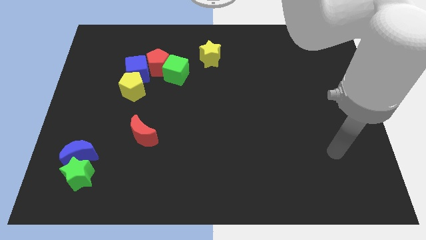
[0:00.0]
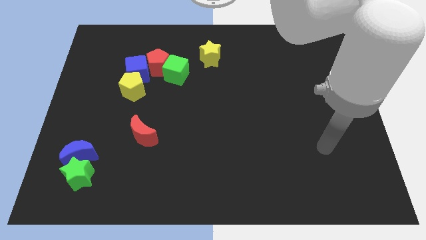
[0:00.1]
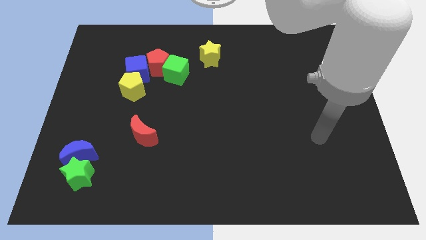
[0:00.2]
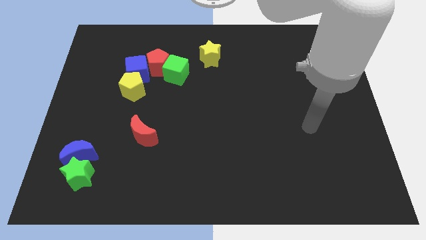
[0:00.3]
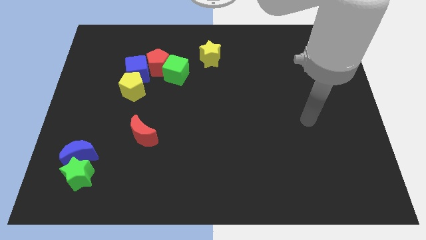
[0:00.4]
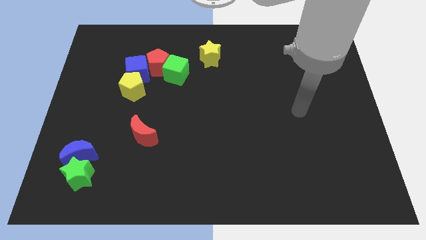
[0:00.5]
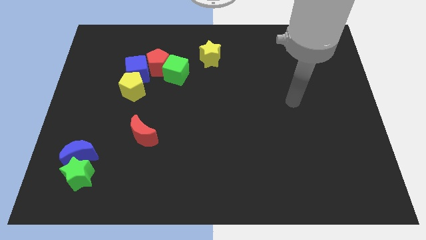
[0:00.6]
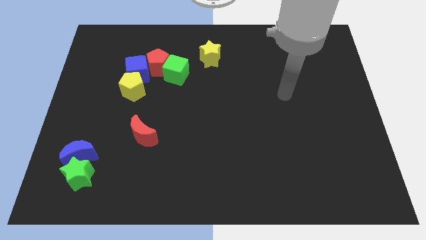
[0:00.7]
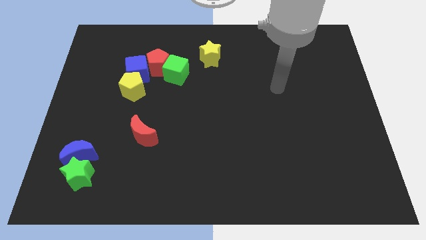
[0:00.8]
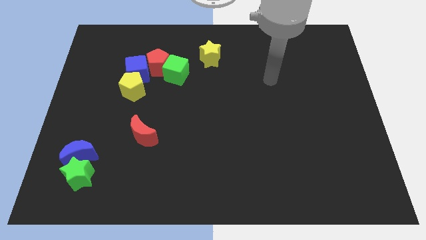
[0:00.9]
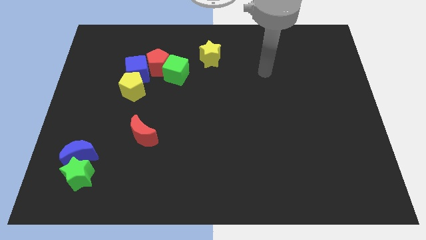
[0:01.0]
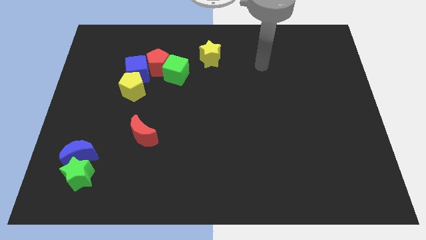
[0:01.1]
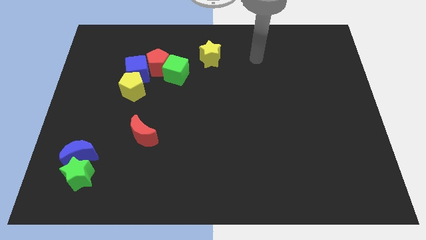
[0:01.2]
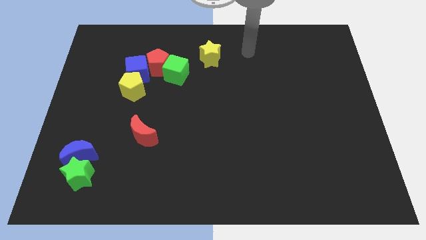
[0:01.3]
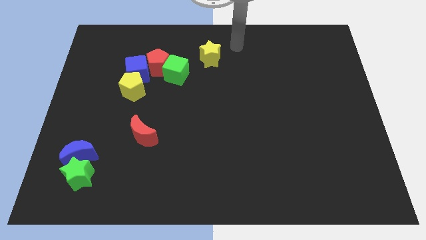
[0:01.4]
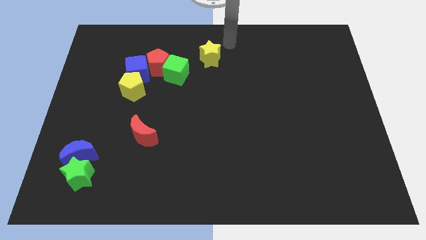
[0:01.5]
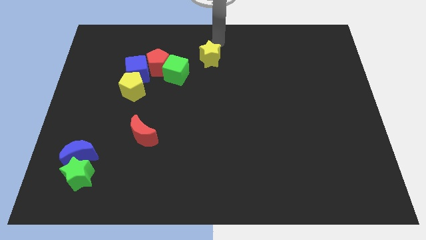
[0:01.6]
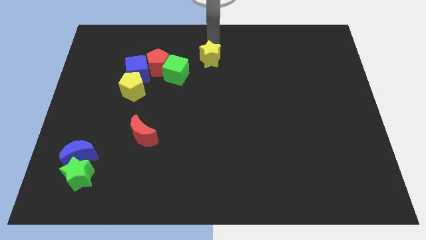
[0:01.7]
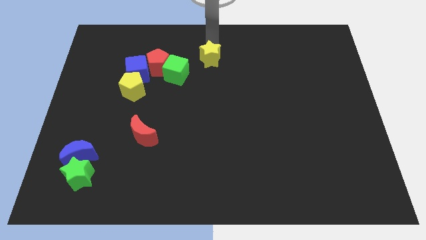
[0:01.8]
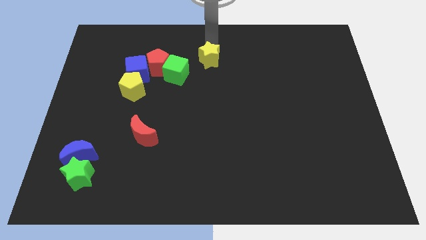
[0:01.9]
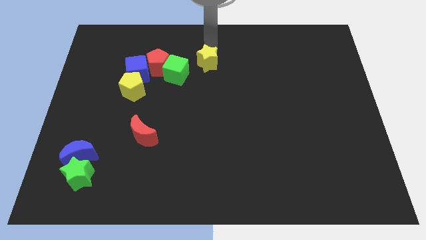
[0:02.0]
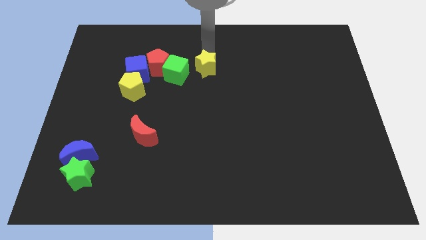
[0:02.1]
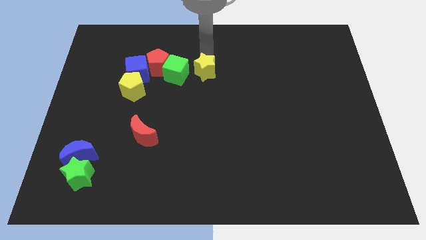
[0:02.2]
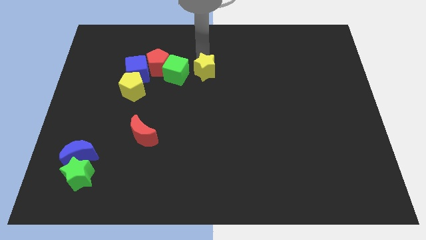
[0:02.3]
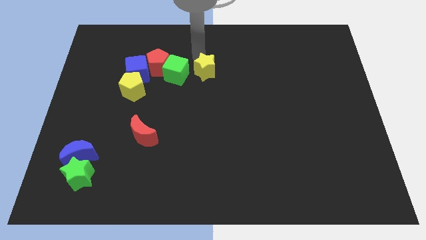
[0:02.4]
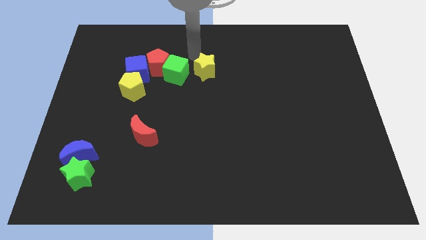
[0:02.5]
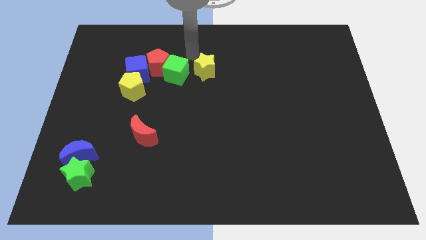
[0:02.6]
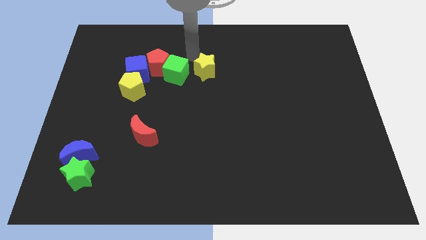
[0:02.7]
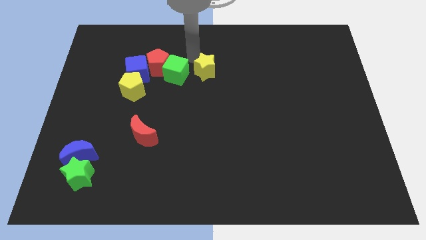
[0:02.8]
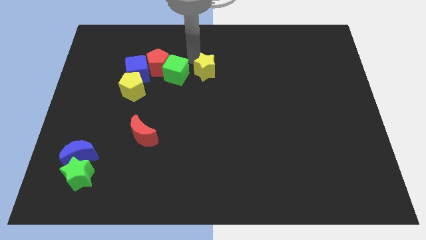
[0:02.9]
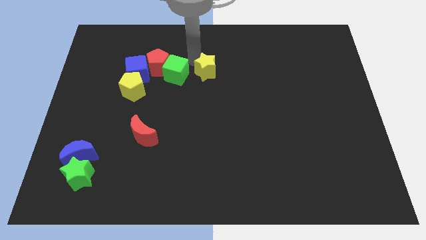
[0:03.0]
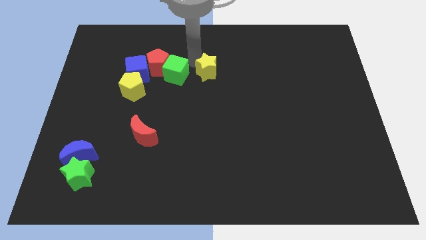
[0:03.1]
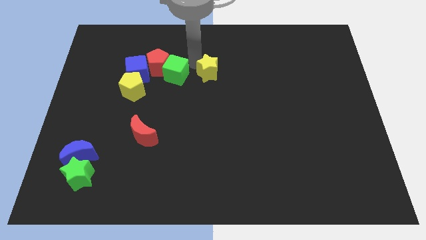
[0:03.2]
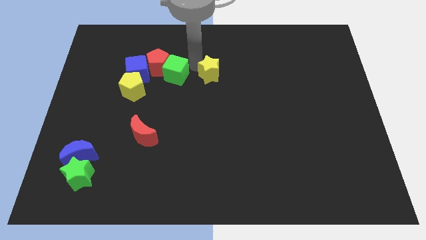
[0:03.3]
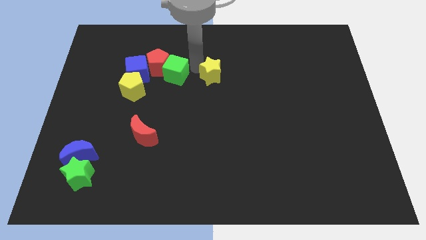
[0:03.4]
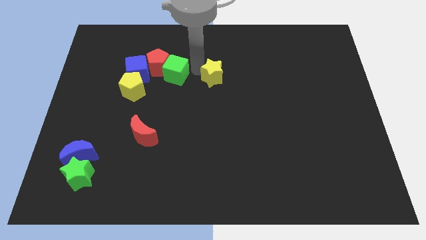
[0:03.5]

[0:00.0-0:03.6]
push the yellow star down a little

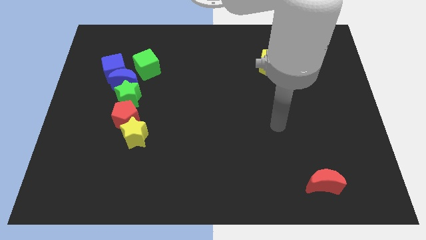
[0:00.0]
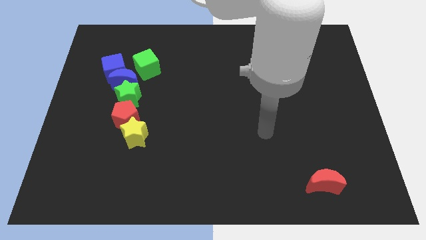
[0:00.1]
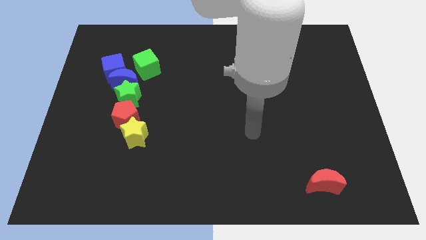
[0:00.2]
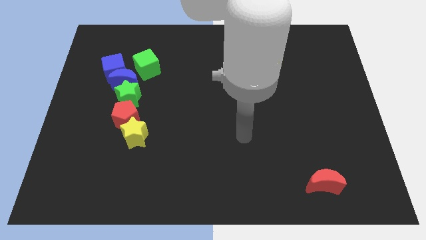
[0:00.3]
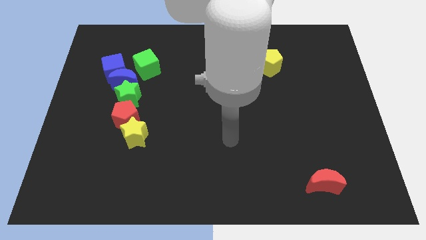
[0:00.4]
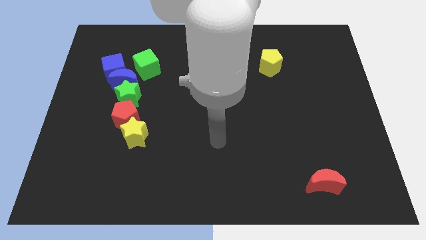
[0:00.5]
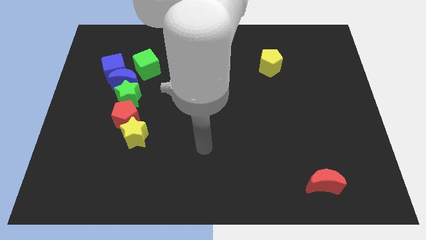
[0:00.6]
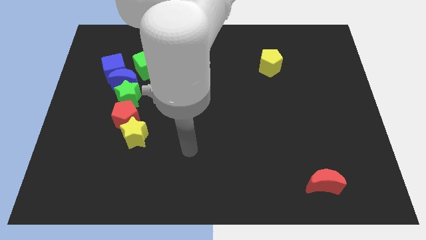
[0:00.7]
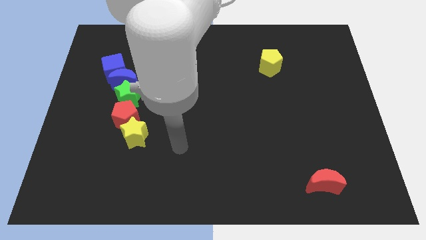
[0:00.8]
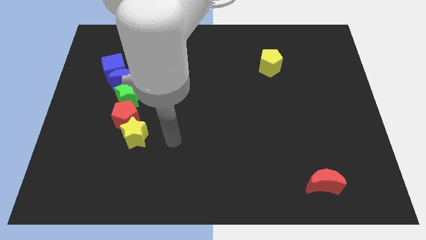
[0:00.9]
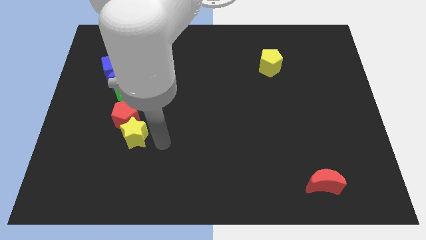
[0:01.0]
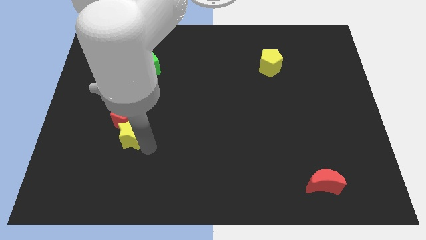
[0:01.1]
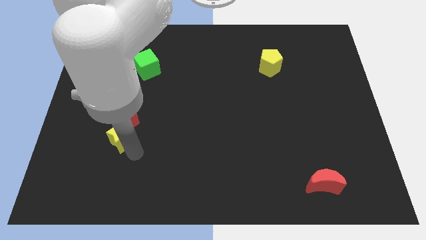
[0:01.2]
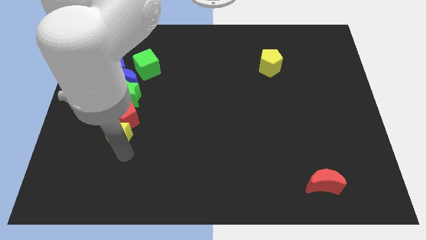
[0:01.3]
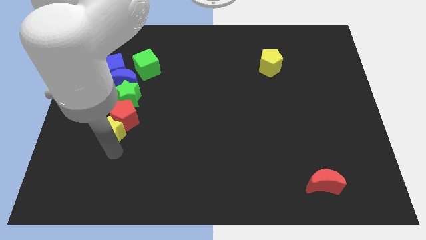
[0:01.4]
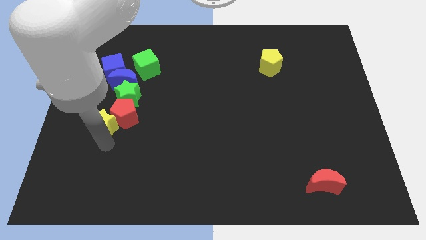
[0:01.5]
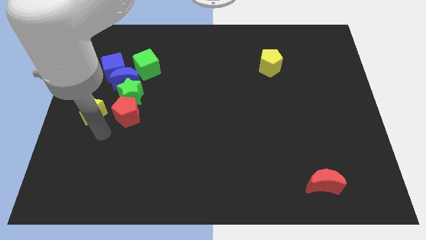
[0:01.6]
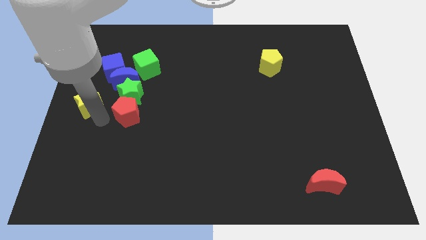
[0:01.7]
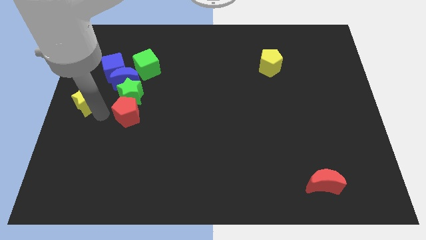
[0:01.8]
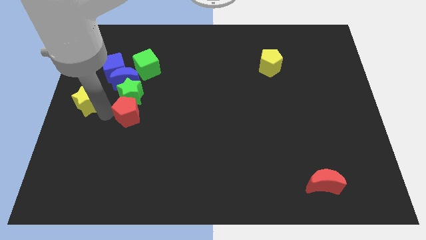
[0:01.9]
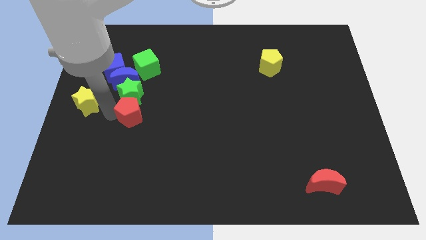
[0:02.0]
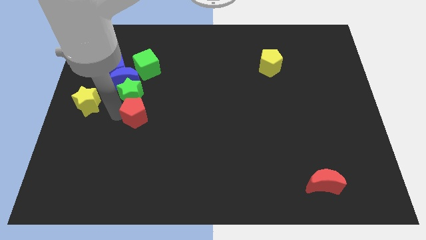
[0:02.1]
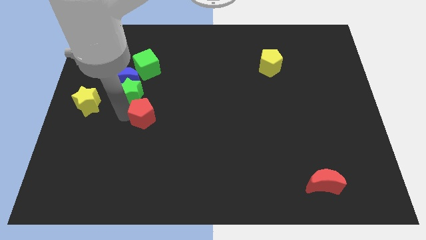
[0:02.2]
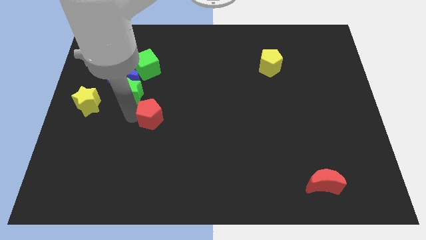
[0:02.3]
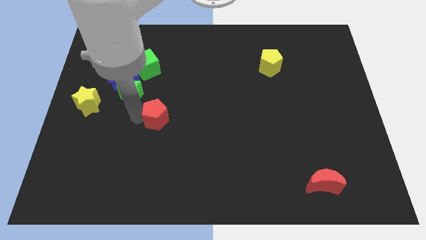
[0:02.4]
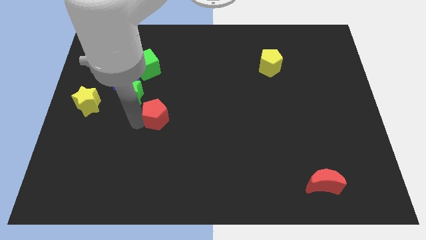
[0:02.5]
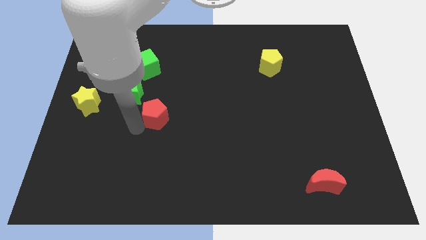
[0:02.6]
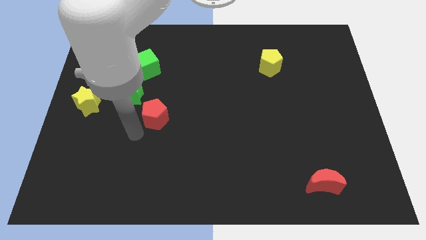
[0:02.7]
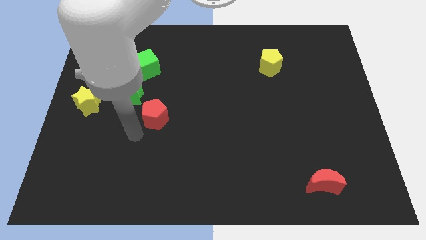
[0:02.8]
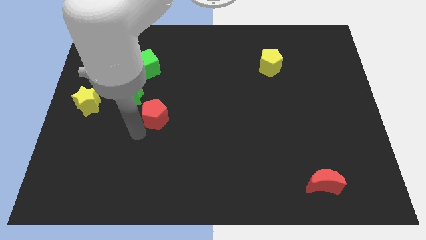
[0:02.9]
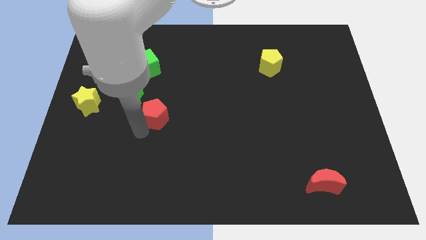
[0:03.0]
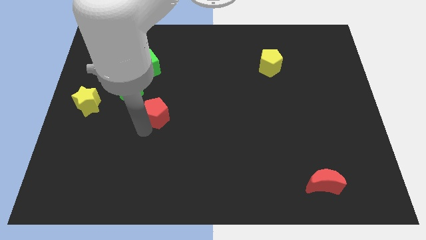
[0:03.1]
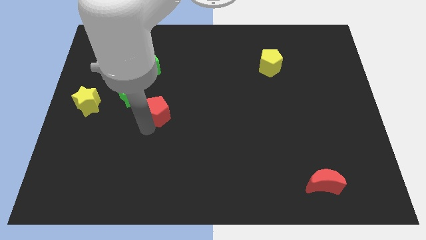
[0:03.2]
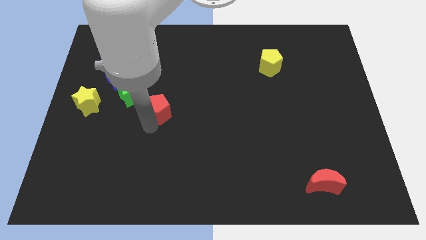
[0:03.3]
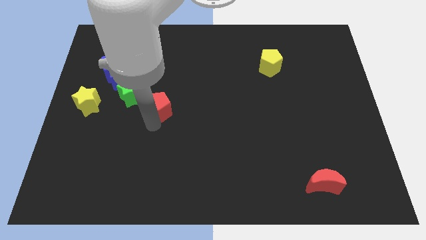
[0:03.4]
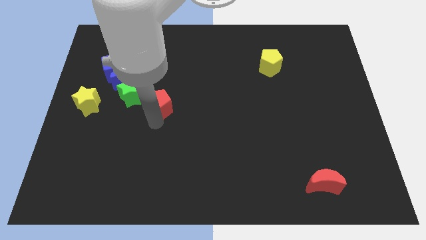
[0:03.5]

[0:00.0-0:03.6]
push the red pentagon a little upwards and to the right

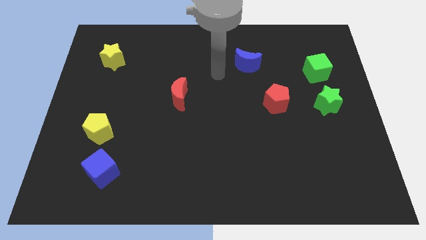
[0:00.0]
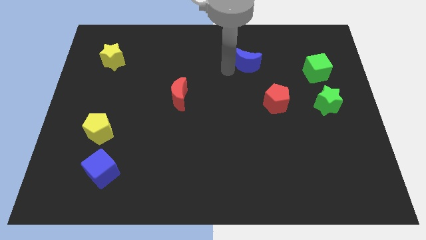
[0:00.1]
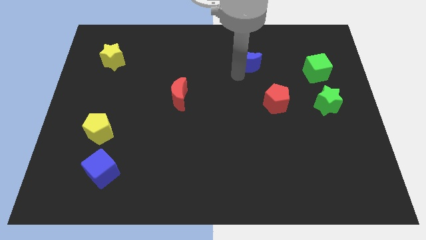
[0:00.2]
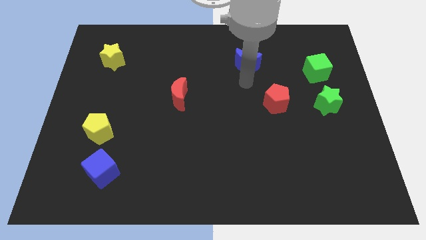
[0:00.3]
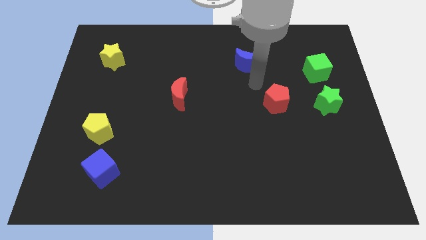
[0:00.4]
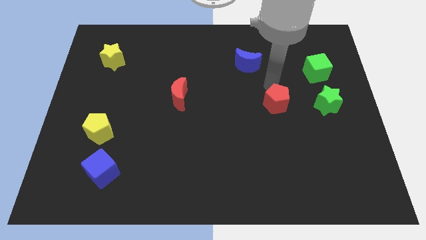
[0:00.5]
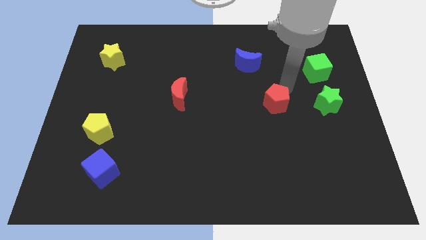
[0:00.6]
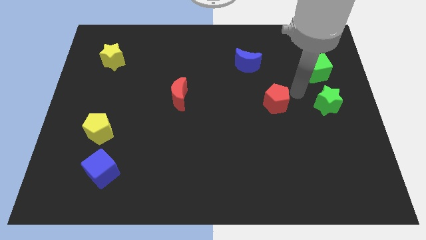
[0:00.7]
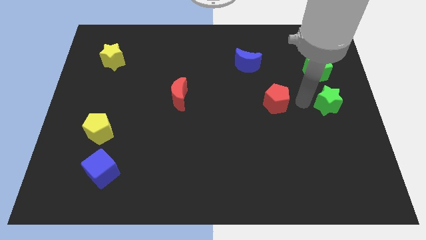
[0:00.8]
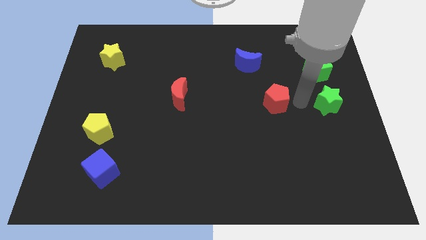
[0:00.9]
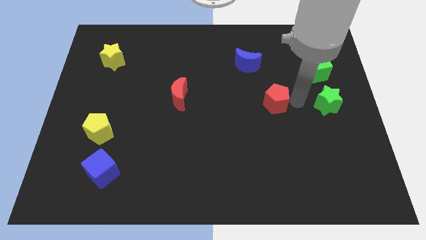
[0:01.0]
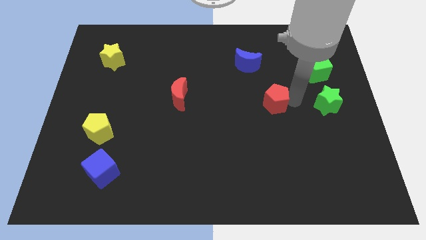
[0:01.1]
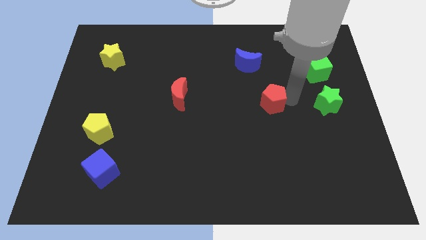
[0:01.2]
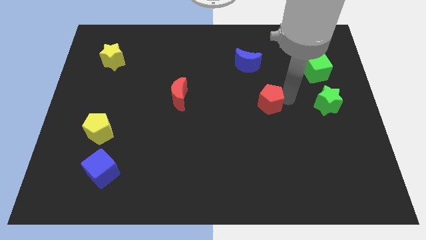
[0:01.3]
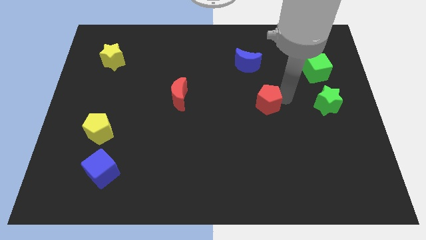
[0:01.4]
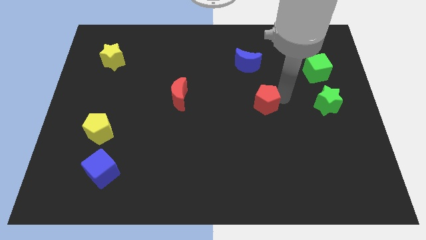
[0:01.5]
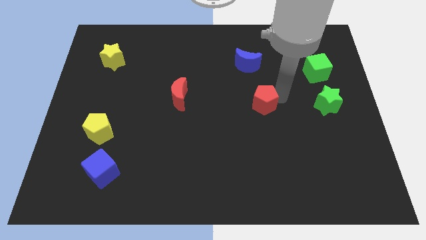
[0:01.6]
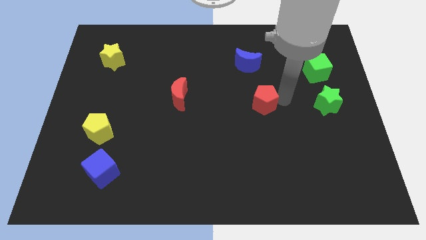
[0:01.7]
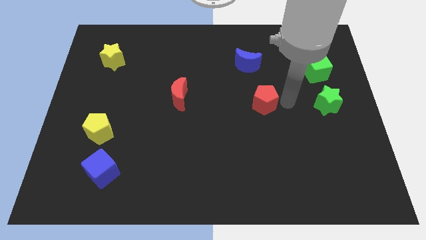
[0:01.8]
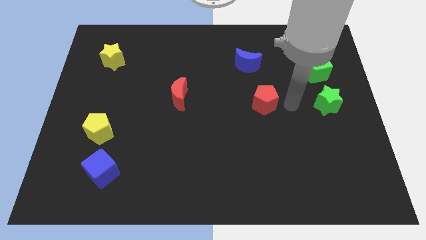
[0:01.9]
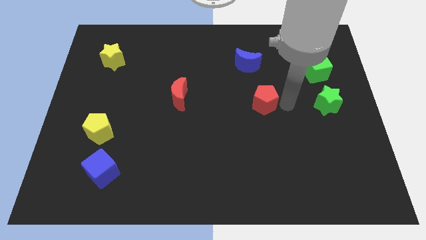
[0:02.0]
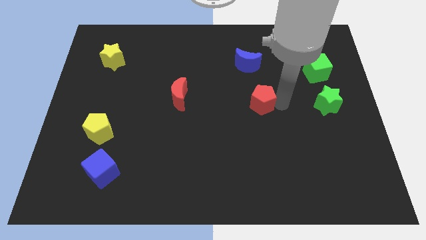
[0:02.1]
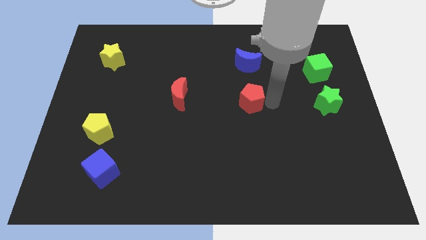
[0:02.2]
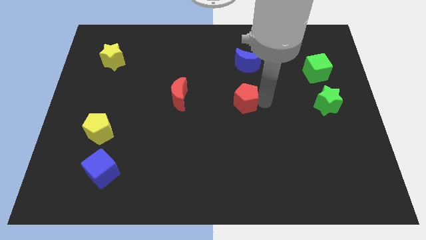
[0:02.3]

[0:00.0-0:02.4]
move the red pentagon a little bit left
